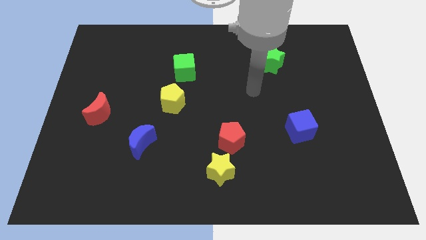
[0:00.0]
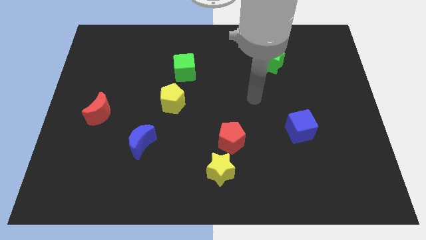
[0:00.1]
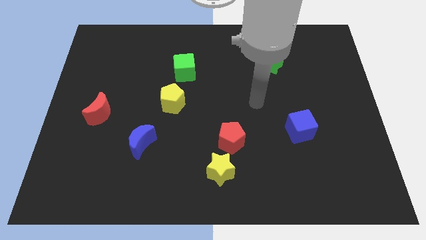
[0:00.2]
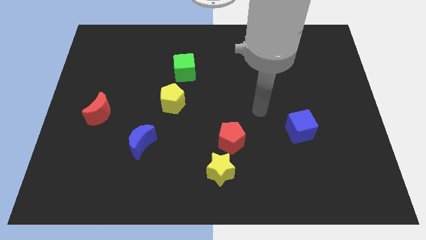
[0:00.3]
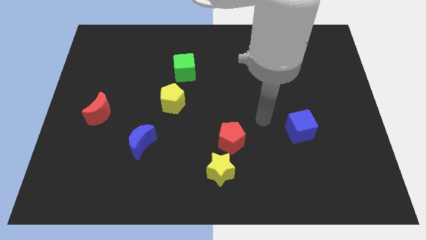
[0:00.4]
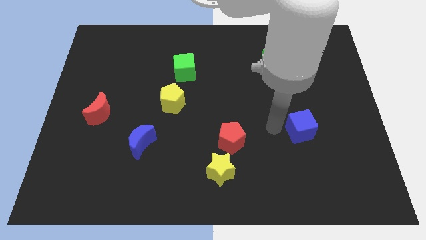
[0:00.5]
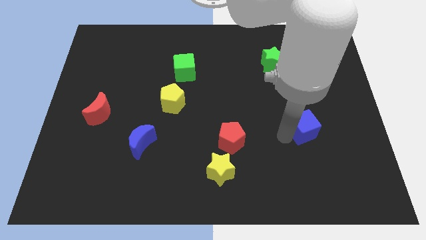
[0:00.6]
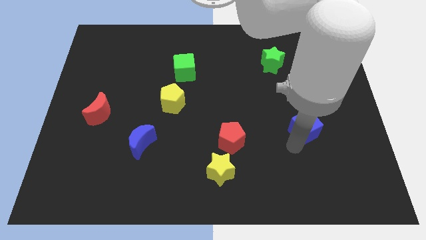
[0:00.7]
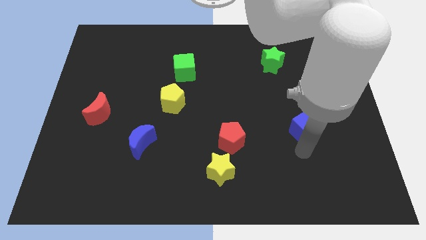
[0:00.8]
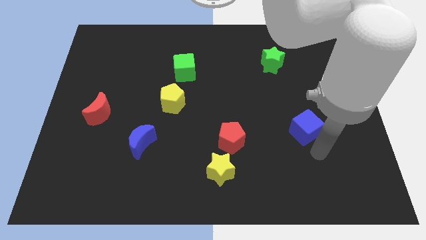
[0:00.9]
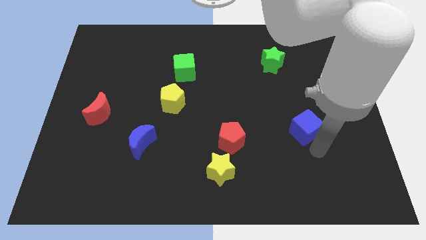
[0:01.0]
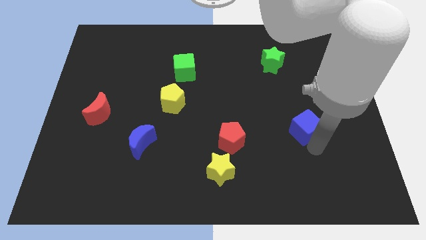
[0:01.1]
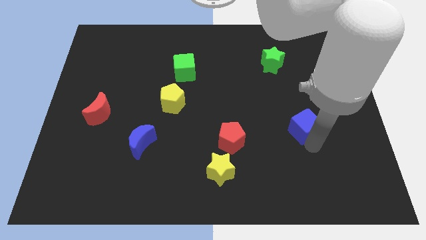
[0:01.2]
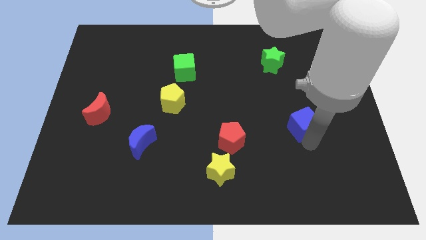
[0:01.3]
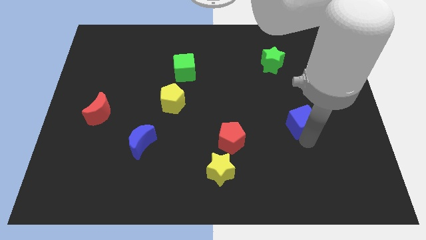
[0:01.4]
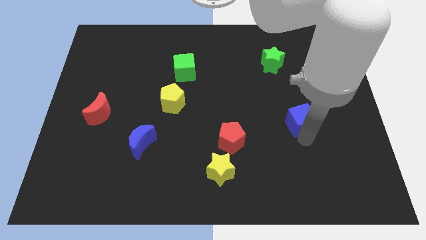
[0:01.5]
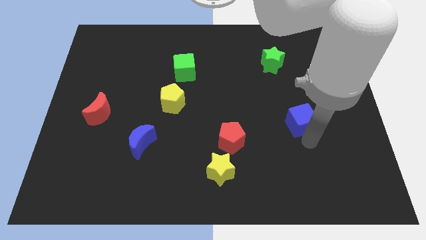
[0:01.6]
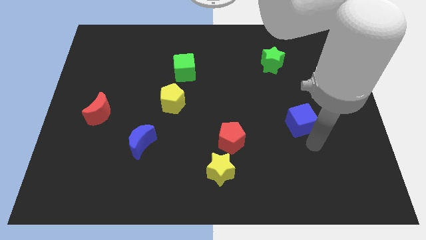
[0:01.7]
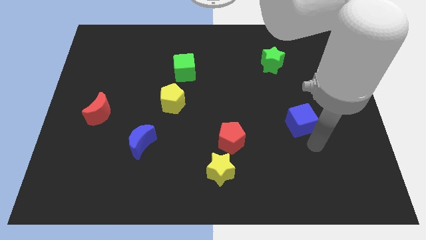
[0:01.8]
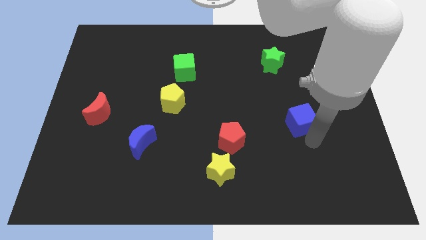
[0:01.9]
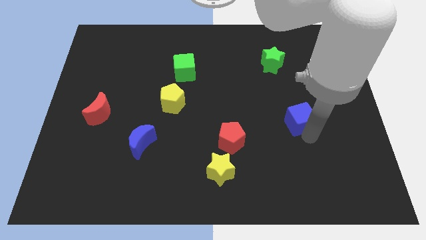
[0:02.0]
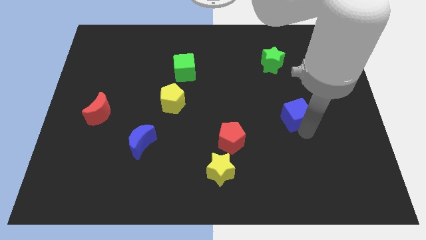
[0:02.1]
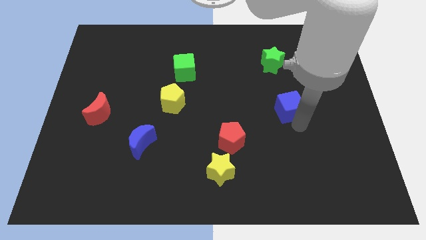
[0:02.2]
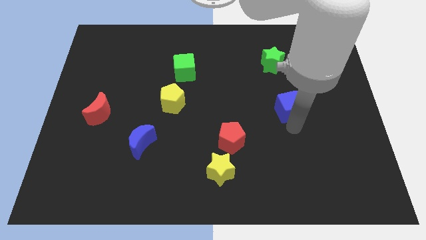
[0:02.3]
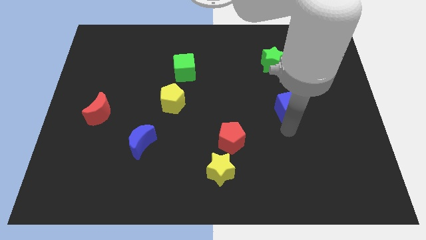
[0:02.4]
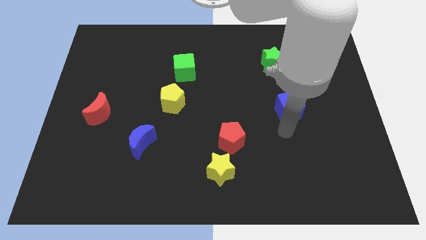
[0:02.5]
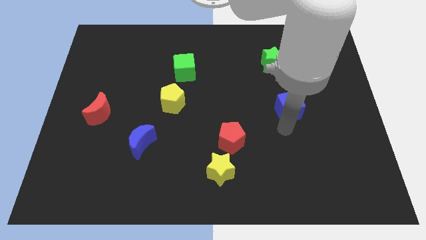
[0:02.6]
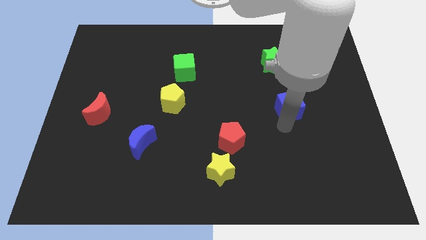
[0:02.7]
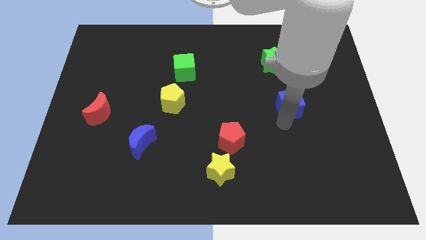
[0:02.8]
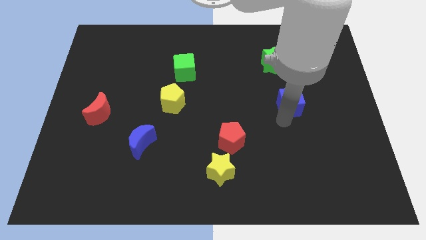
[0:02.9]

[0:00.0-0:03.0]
push the blue cube up slightly

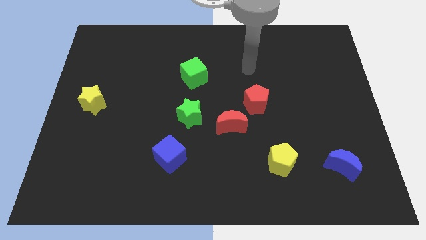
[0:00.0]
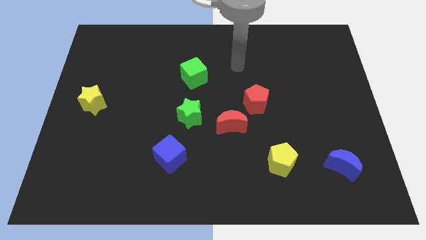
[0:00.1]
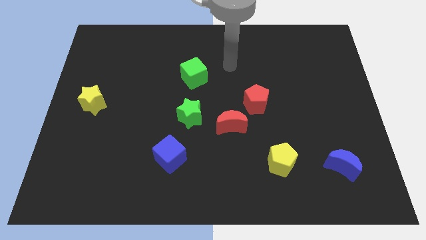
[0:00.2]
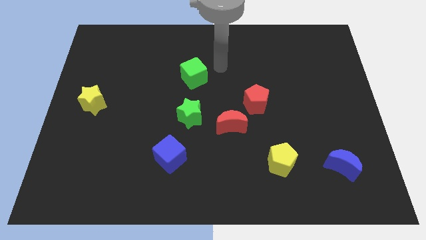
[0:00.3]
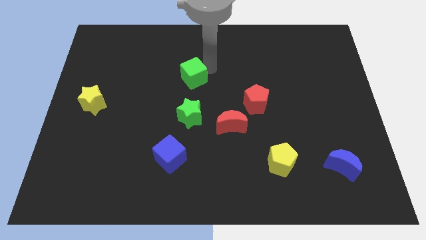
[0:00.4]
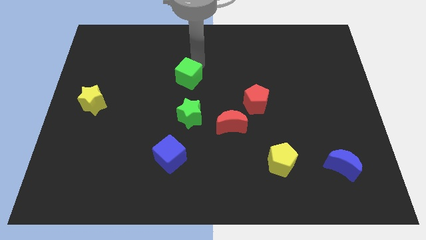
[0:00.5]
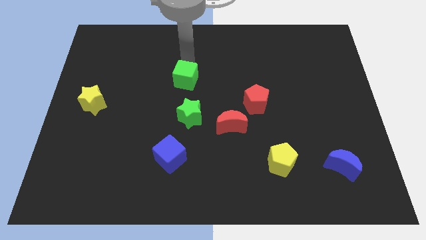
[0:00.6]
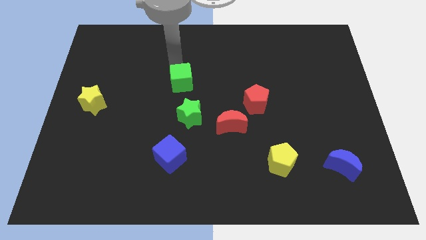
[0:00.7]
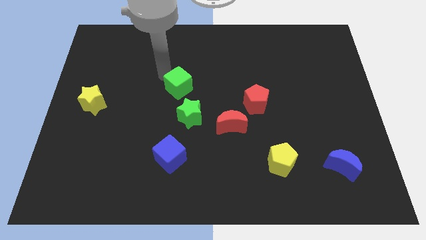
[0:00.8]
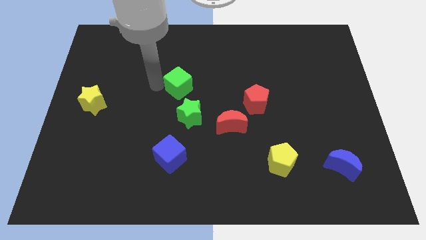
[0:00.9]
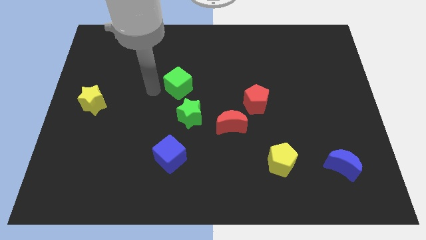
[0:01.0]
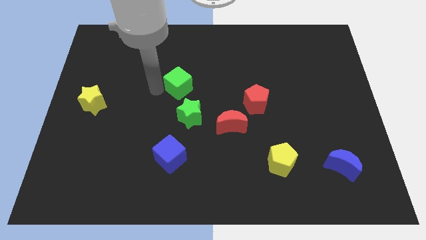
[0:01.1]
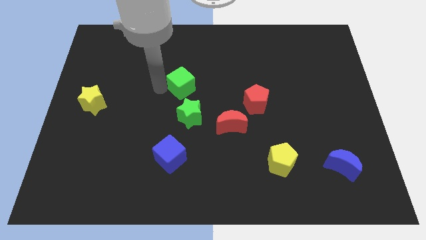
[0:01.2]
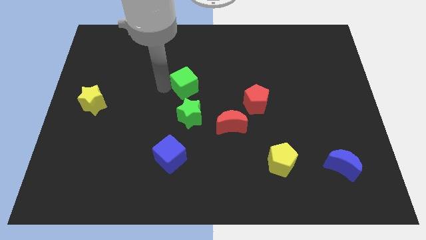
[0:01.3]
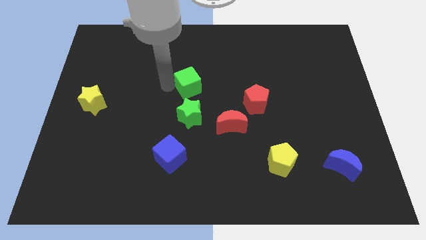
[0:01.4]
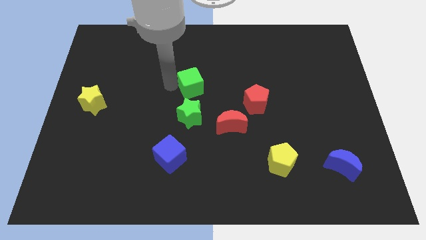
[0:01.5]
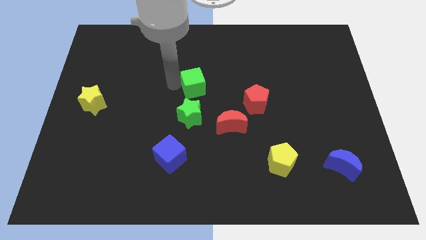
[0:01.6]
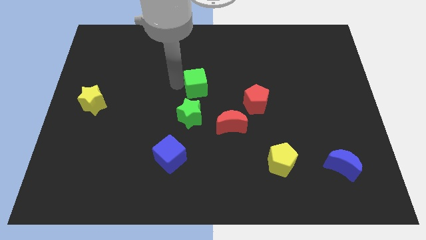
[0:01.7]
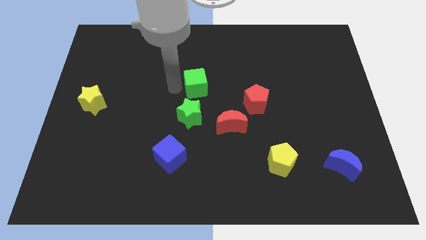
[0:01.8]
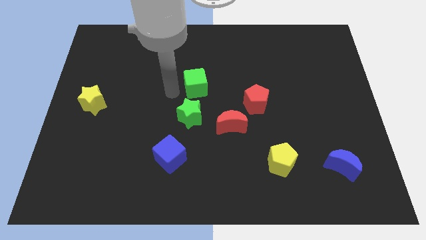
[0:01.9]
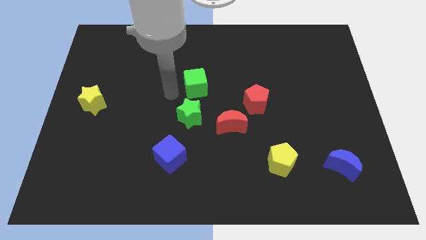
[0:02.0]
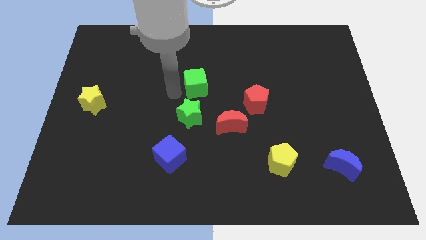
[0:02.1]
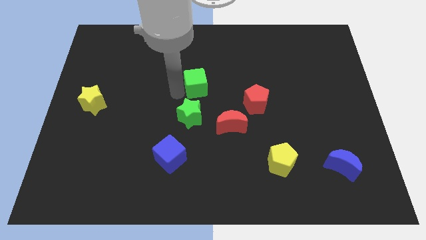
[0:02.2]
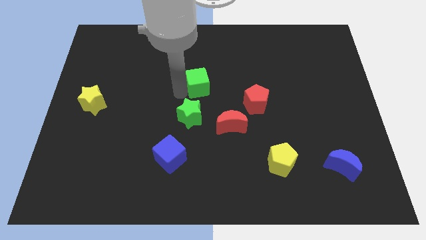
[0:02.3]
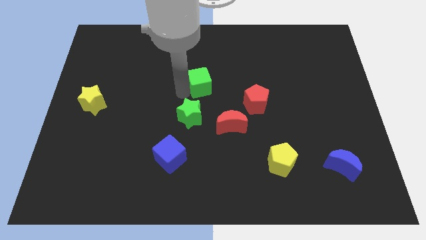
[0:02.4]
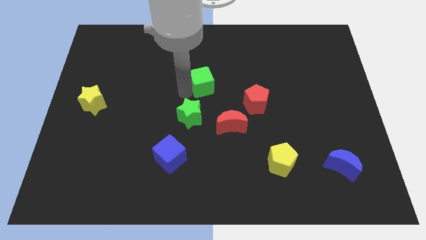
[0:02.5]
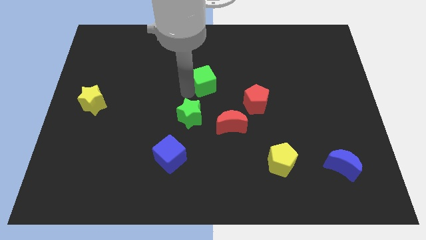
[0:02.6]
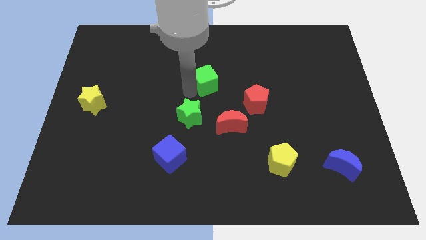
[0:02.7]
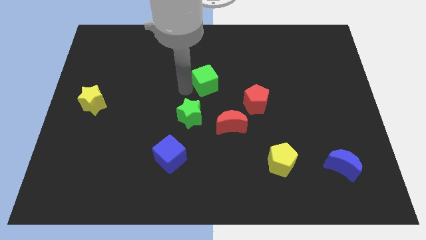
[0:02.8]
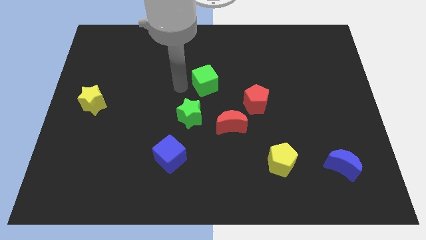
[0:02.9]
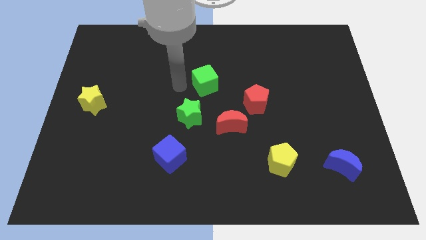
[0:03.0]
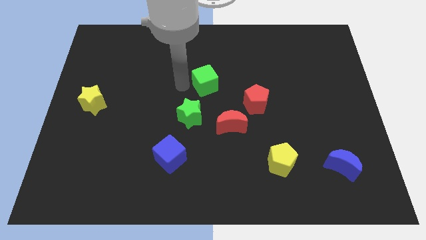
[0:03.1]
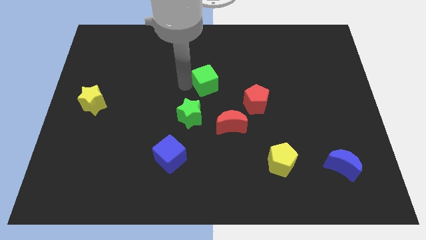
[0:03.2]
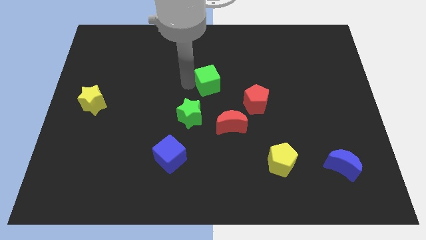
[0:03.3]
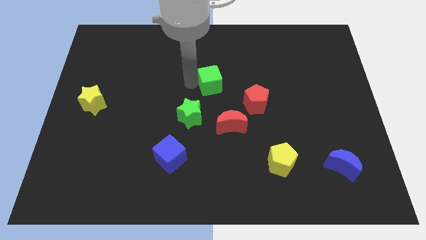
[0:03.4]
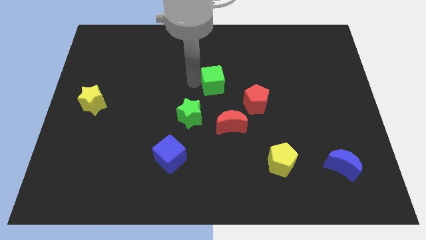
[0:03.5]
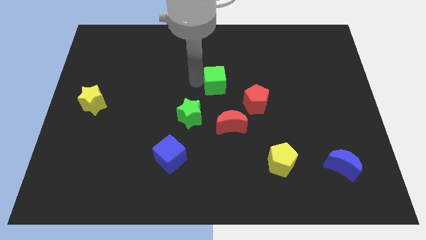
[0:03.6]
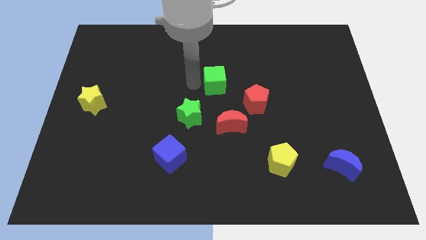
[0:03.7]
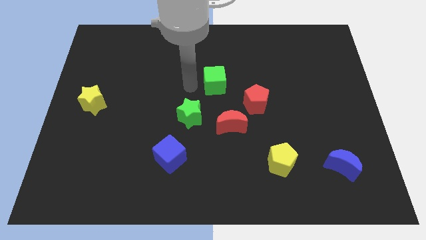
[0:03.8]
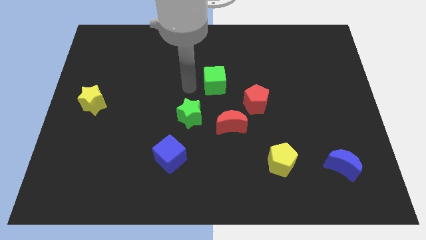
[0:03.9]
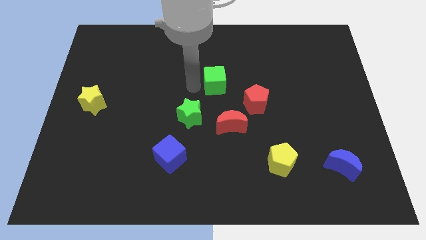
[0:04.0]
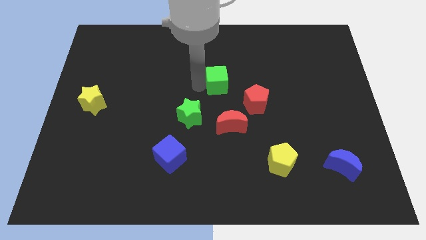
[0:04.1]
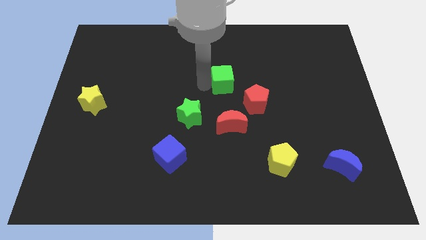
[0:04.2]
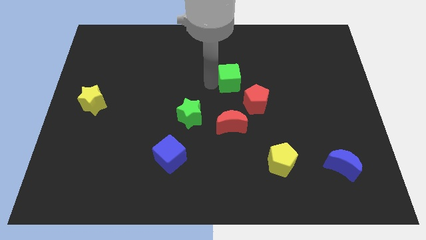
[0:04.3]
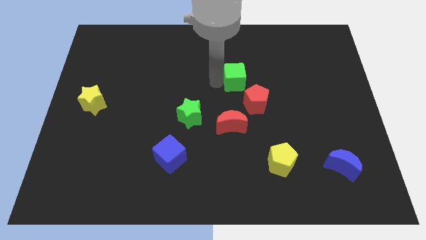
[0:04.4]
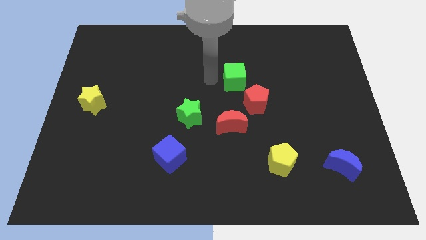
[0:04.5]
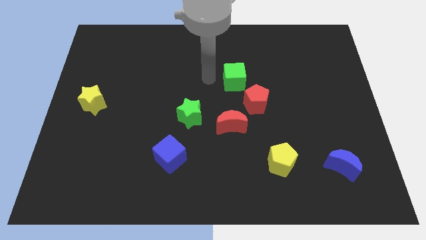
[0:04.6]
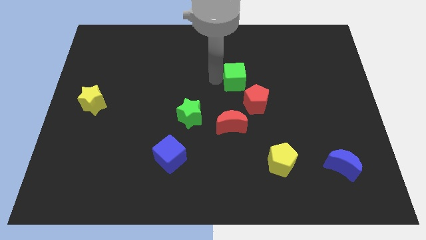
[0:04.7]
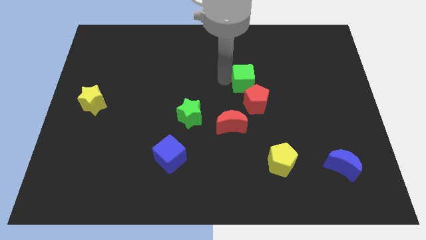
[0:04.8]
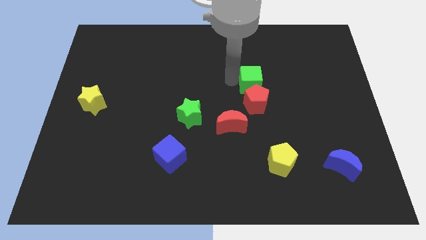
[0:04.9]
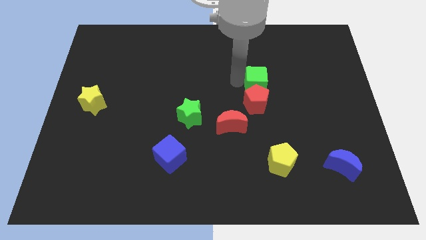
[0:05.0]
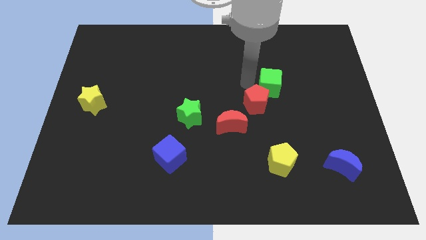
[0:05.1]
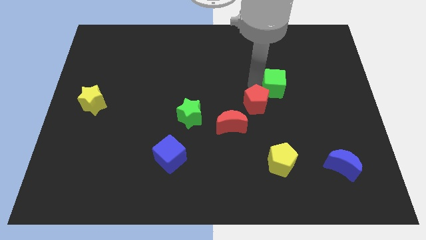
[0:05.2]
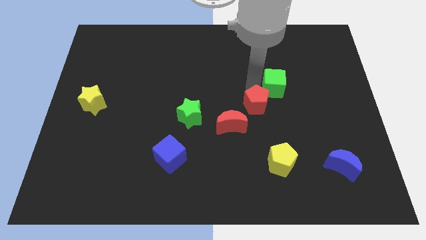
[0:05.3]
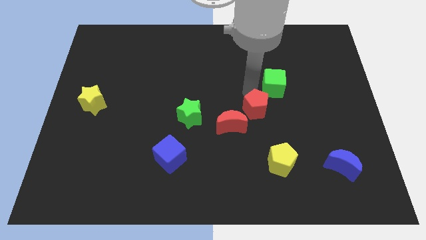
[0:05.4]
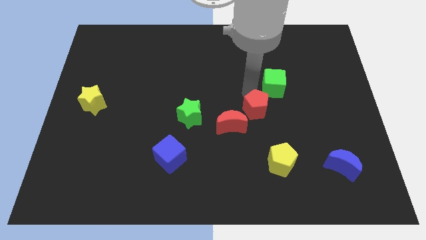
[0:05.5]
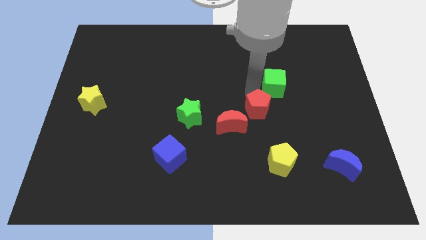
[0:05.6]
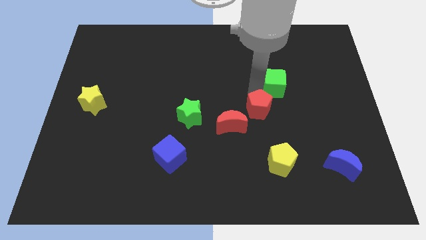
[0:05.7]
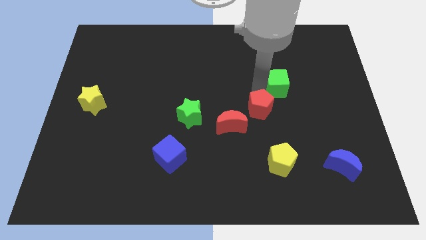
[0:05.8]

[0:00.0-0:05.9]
slide the green cube right
